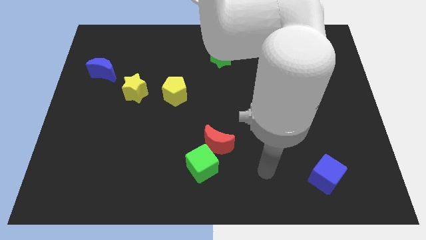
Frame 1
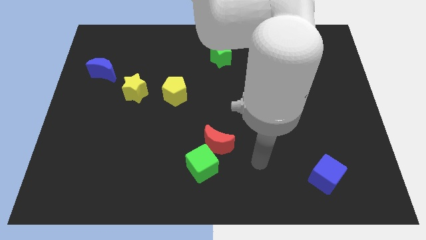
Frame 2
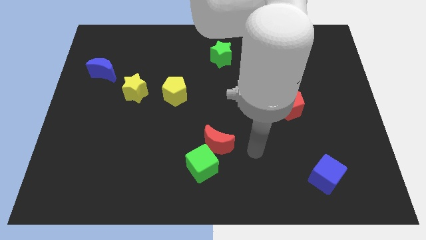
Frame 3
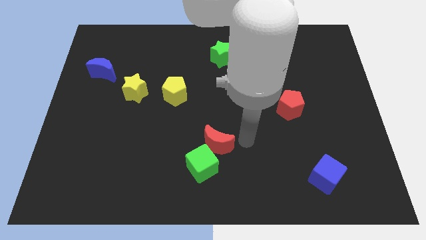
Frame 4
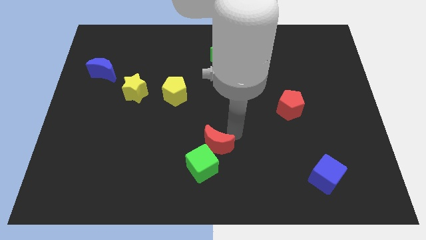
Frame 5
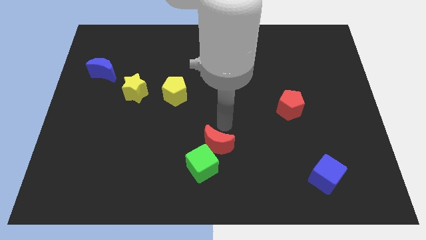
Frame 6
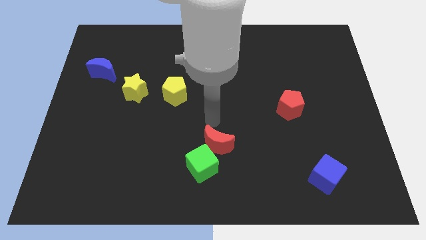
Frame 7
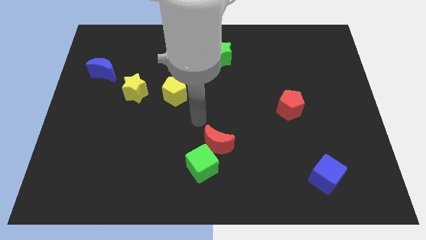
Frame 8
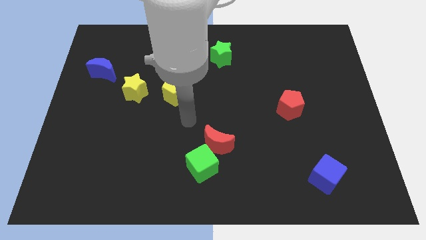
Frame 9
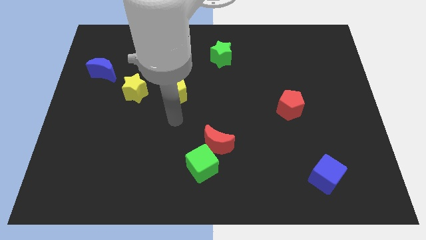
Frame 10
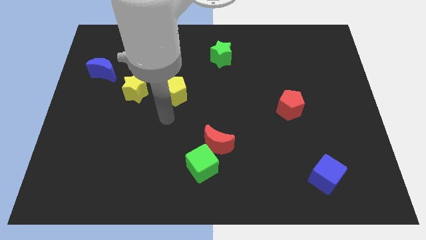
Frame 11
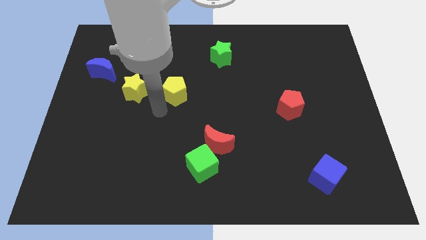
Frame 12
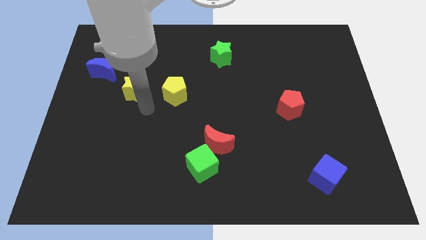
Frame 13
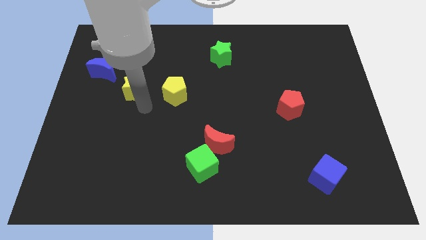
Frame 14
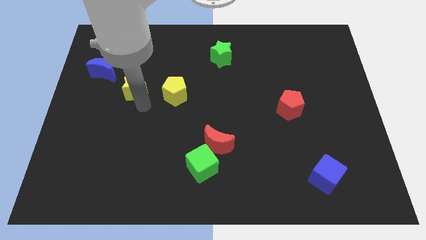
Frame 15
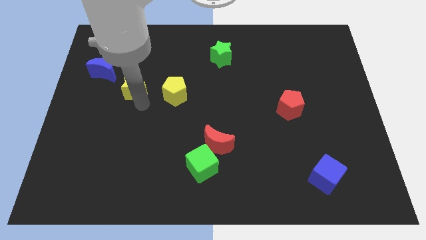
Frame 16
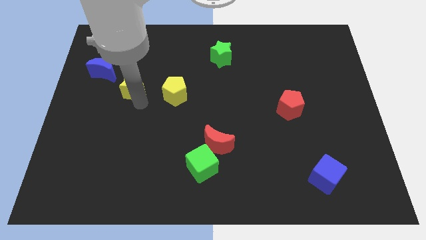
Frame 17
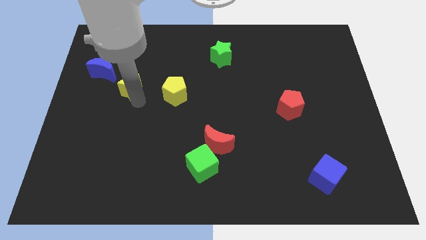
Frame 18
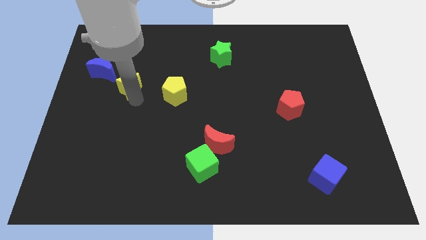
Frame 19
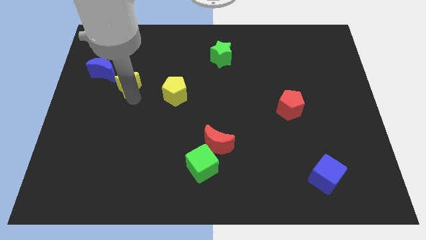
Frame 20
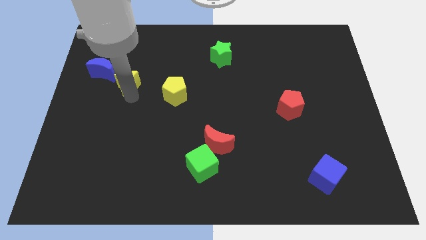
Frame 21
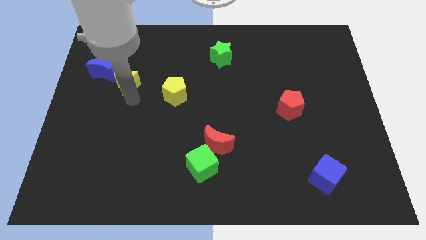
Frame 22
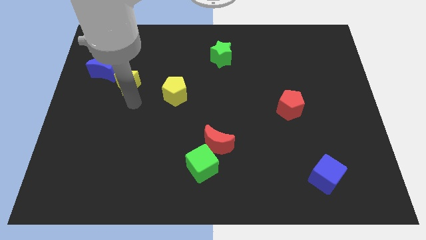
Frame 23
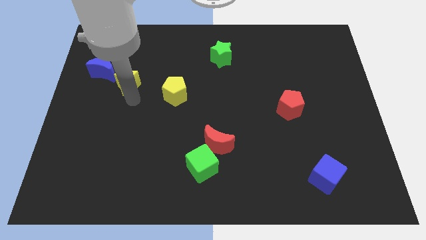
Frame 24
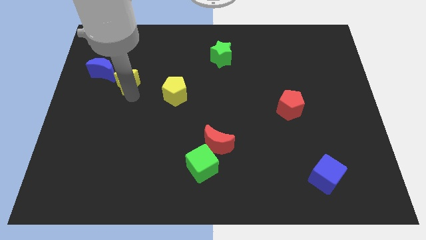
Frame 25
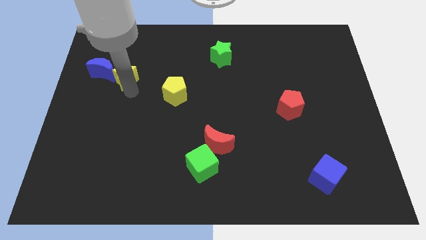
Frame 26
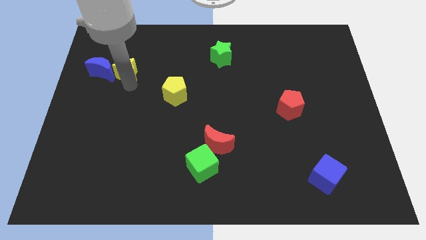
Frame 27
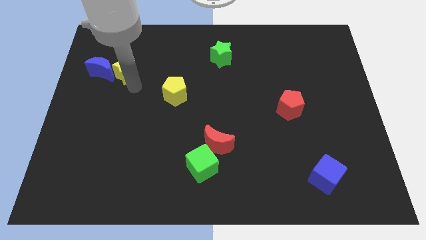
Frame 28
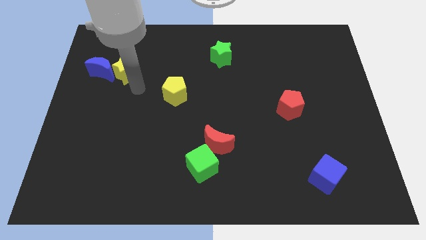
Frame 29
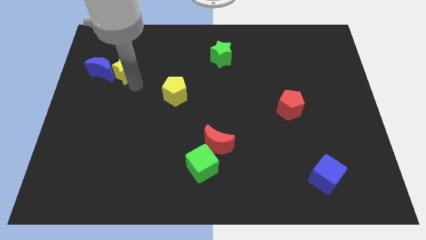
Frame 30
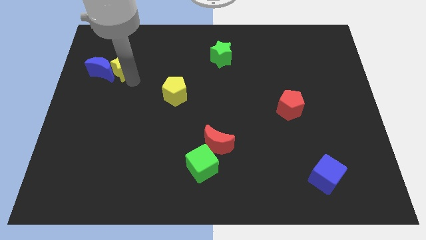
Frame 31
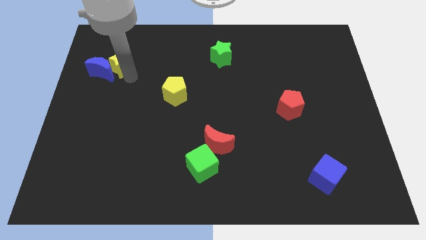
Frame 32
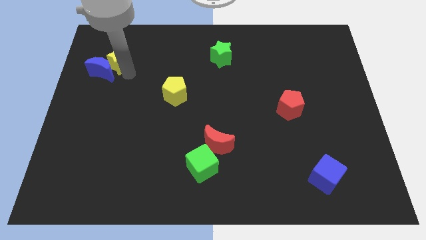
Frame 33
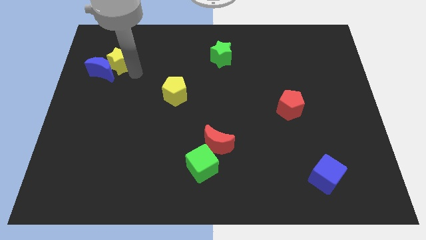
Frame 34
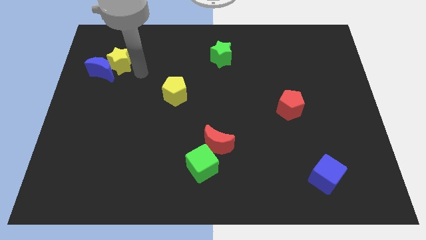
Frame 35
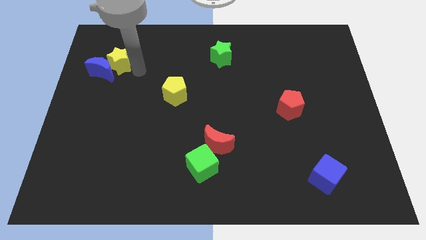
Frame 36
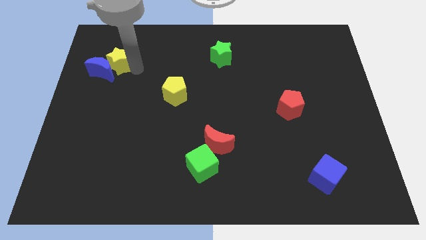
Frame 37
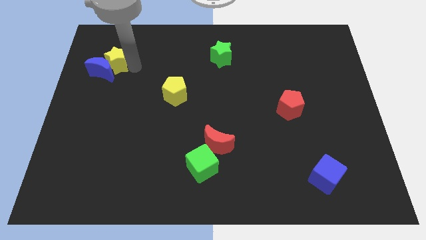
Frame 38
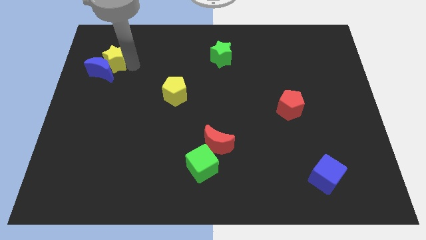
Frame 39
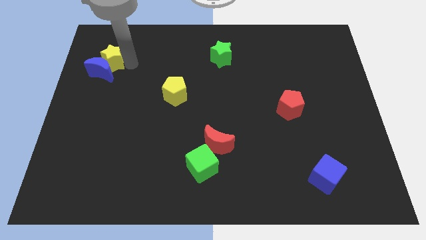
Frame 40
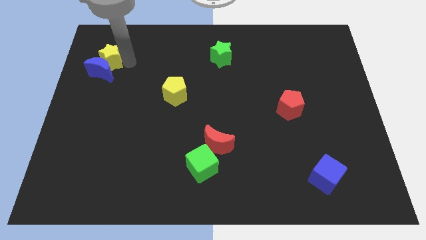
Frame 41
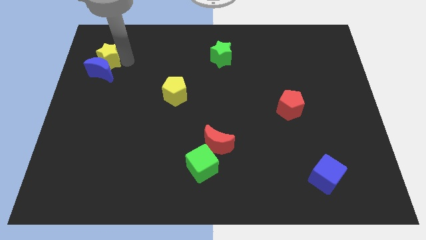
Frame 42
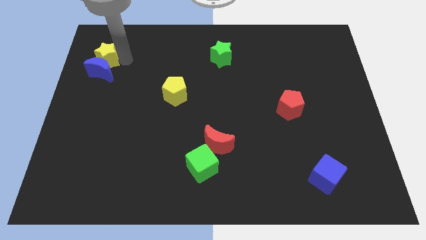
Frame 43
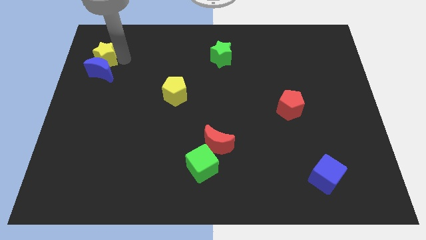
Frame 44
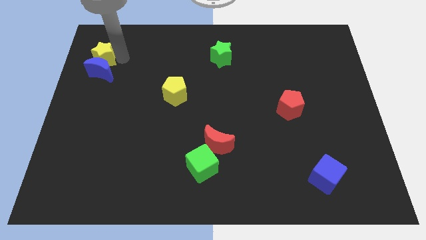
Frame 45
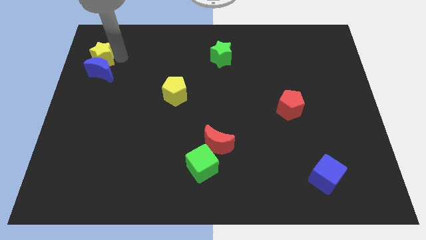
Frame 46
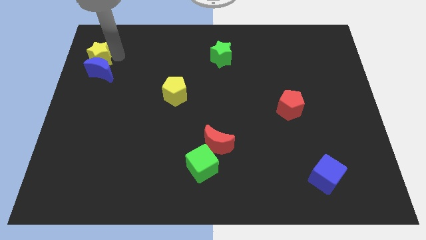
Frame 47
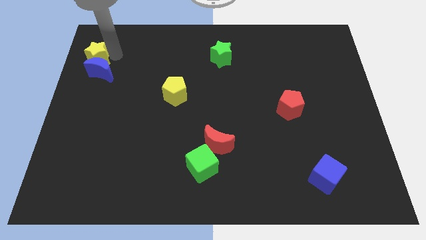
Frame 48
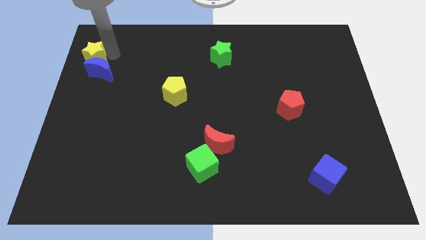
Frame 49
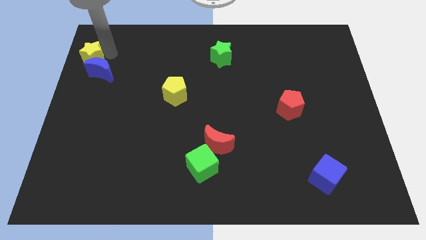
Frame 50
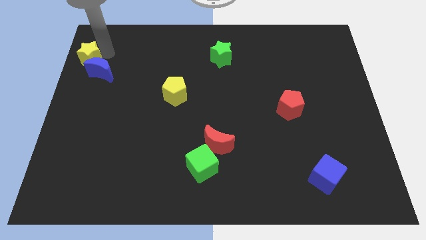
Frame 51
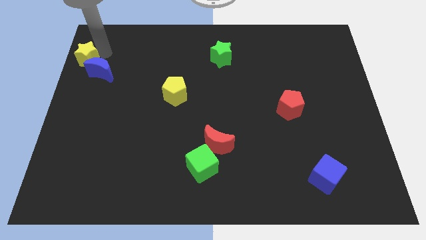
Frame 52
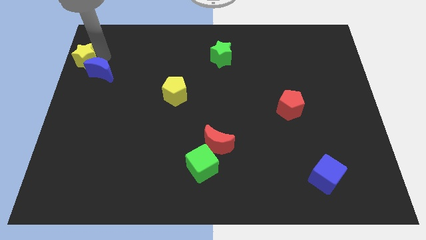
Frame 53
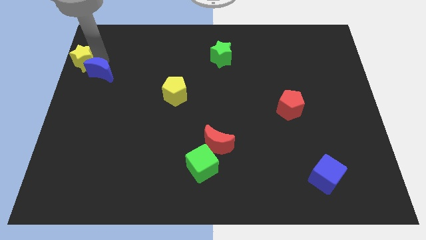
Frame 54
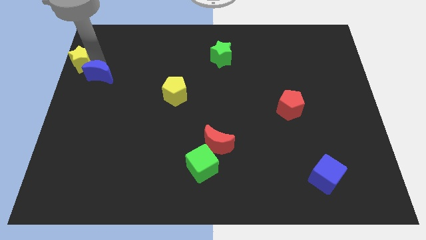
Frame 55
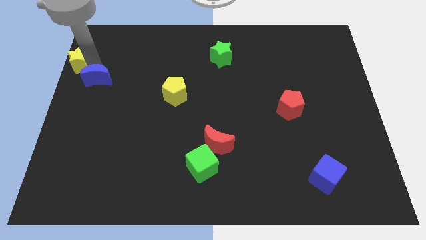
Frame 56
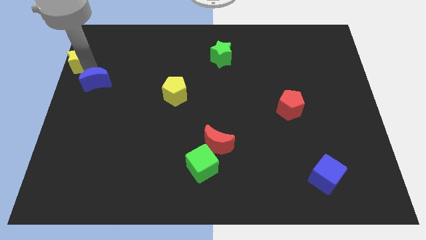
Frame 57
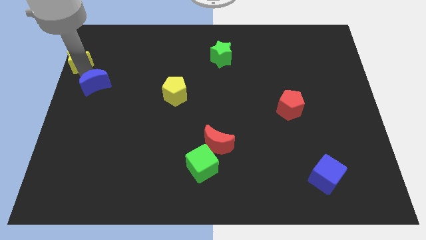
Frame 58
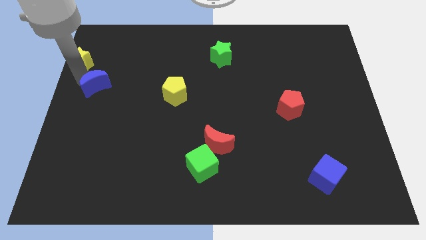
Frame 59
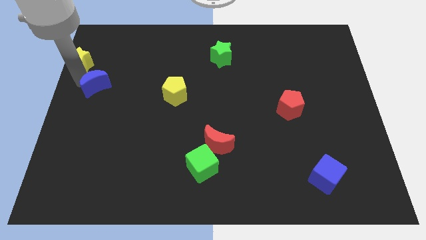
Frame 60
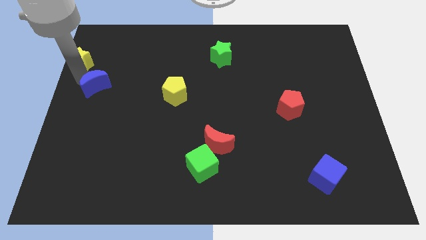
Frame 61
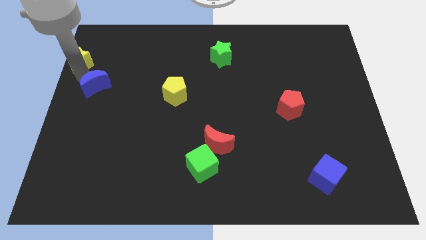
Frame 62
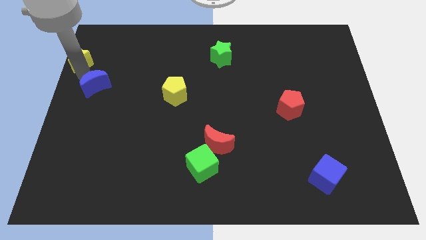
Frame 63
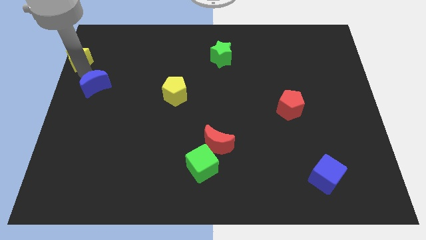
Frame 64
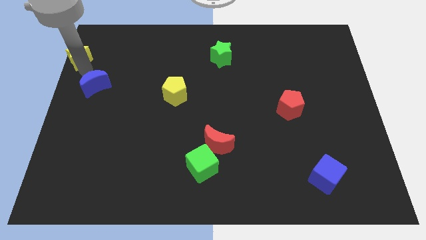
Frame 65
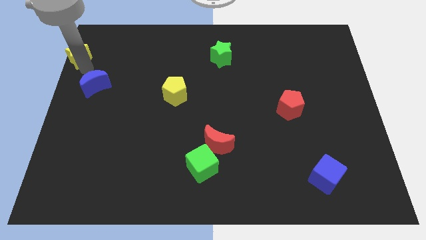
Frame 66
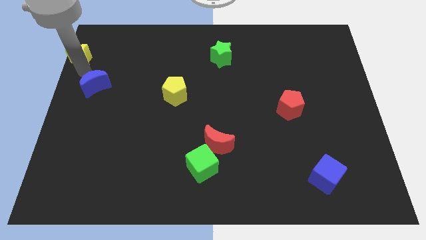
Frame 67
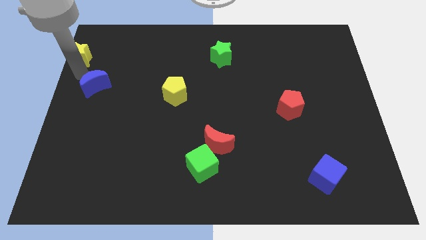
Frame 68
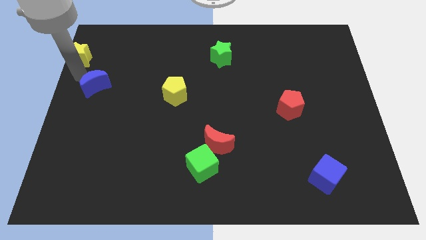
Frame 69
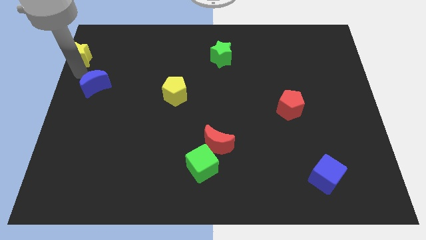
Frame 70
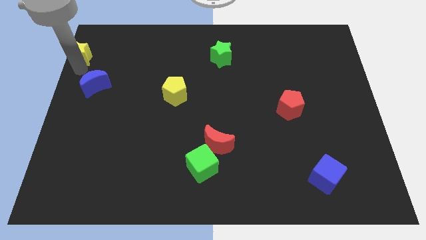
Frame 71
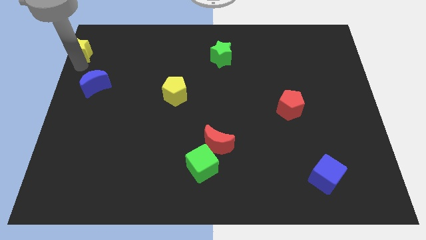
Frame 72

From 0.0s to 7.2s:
slide the yellow star to the top left
